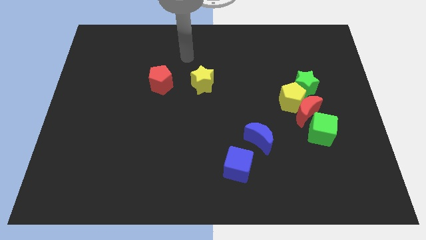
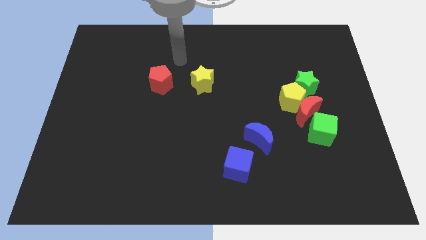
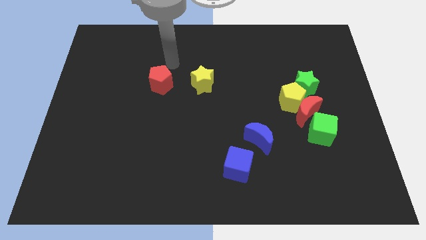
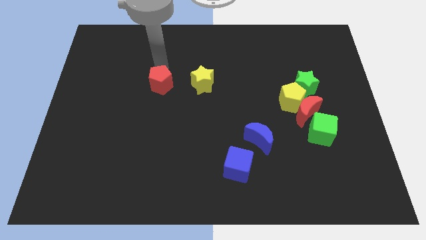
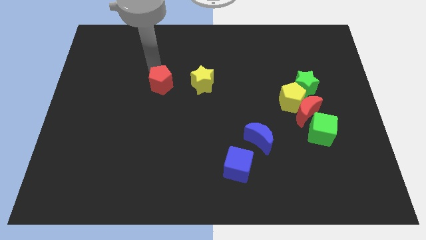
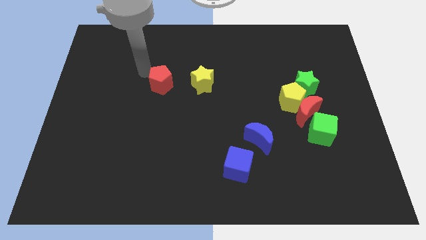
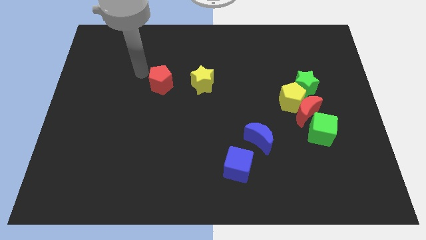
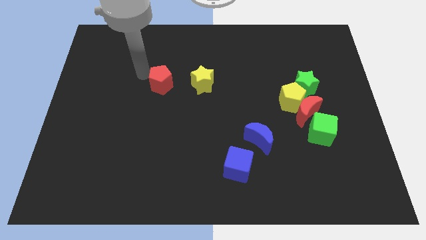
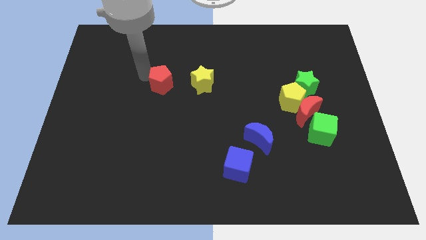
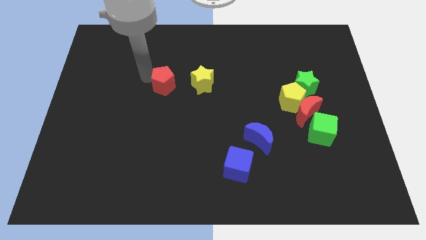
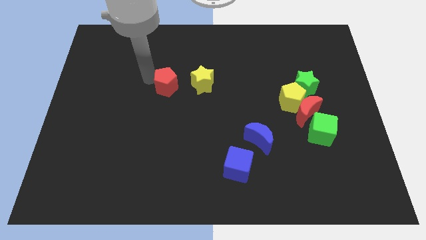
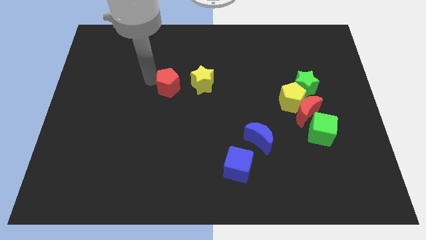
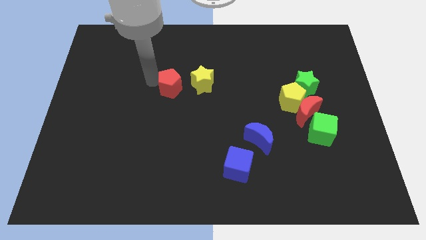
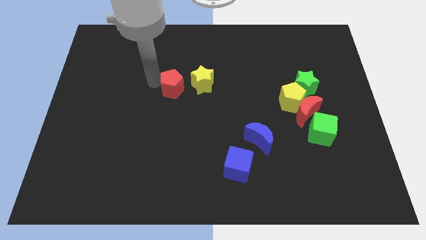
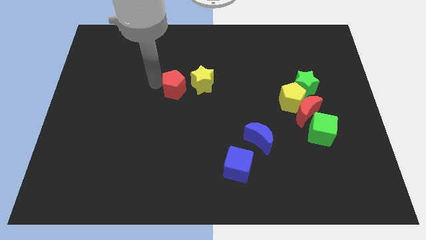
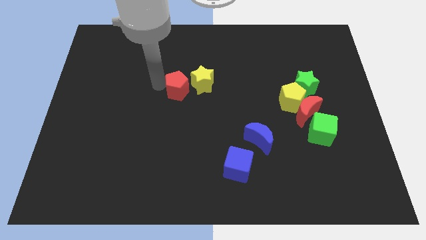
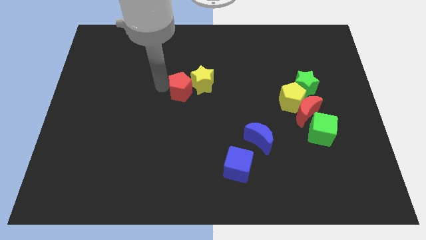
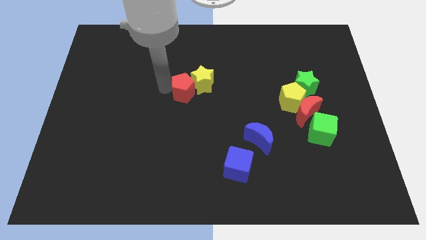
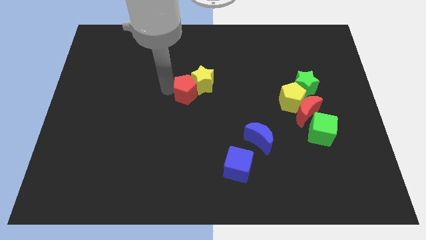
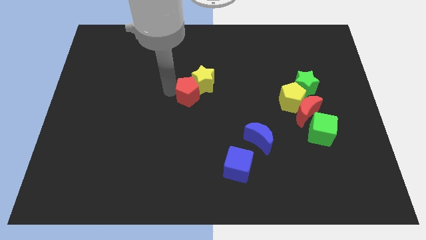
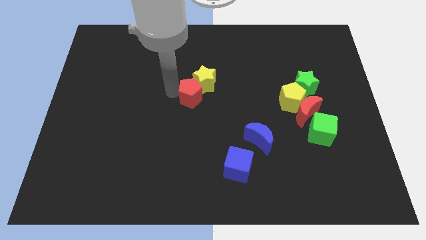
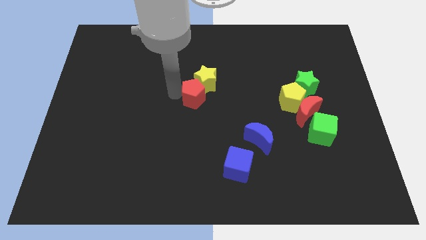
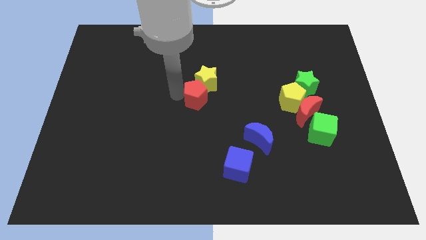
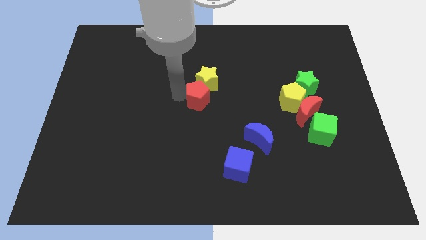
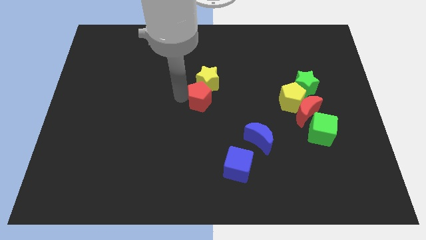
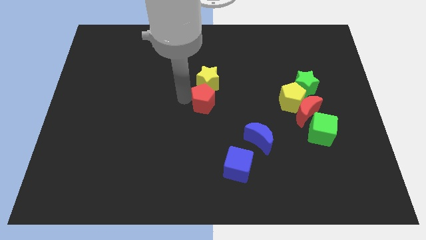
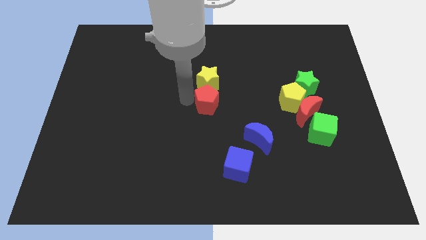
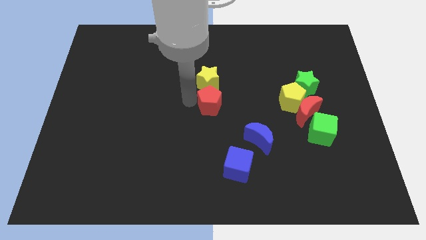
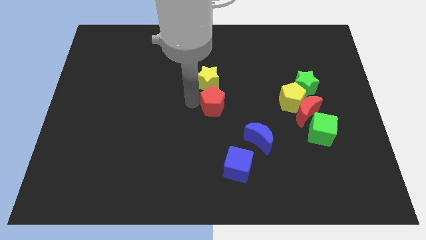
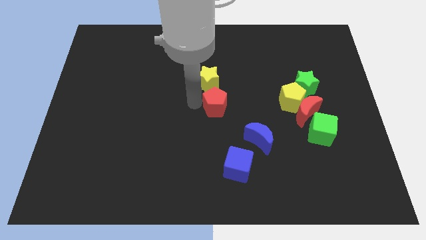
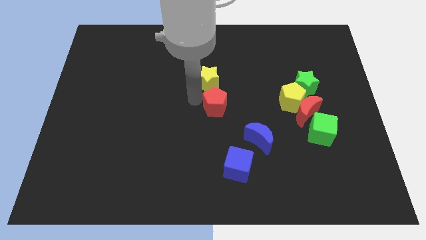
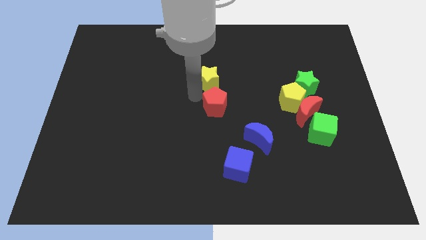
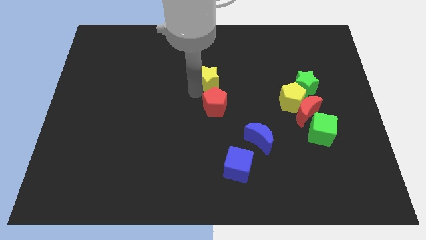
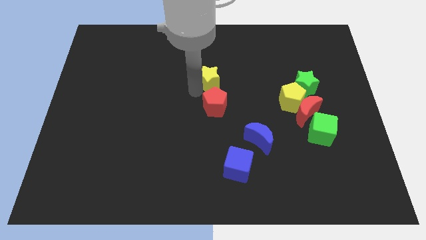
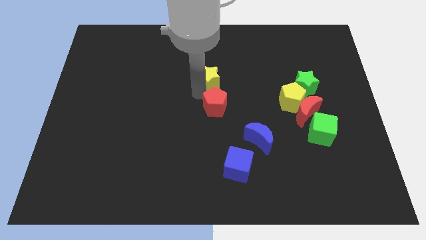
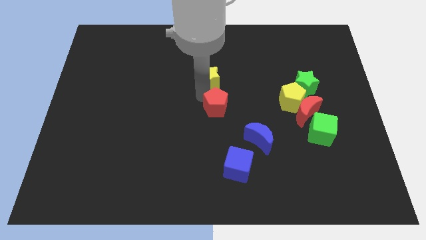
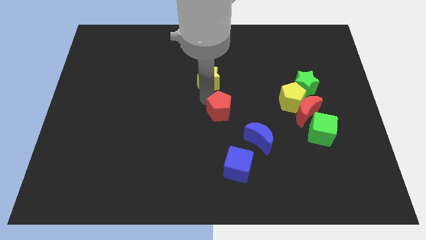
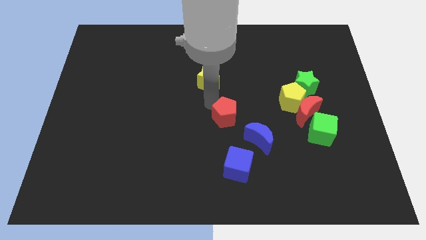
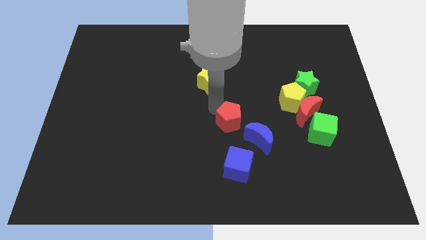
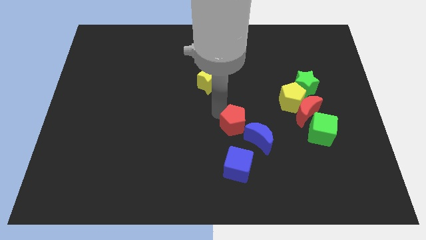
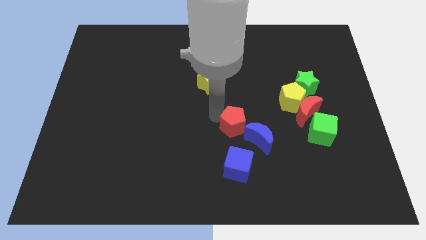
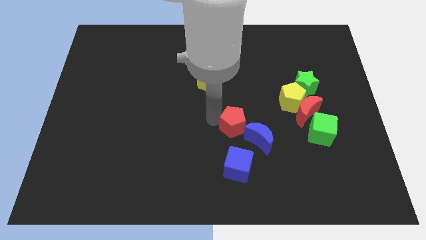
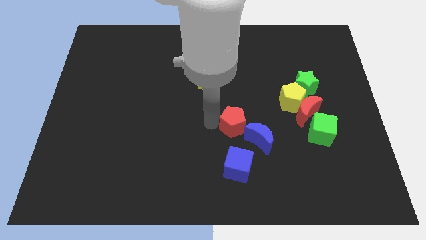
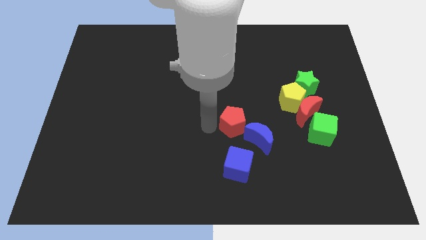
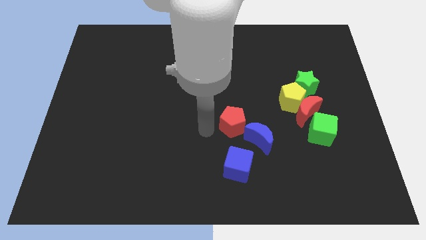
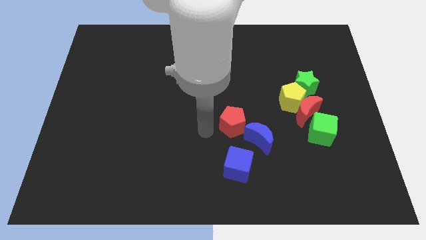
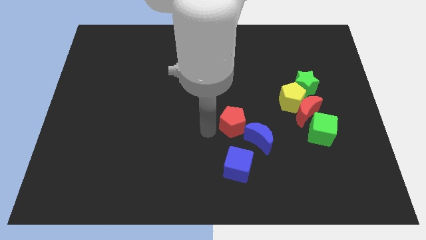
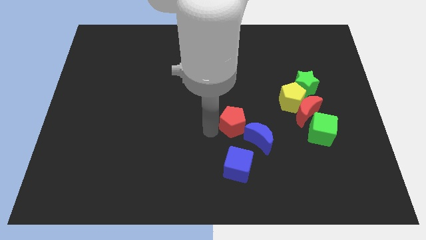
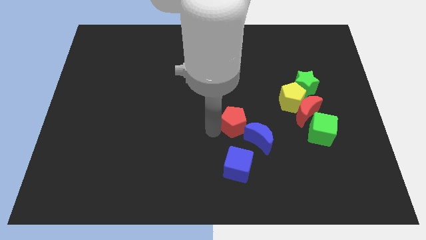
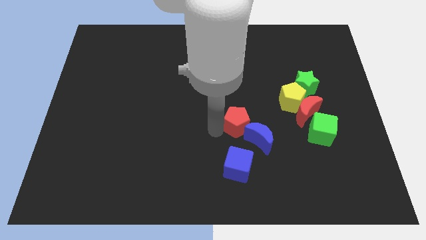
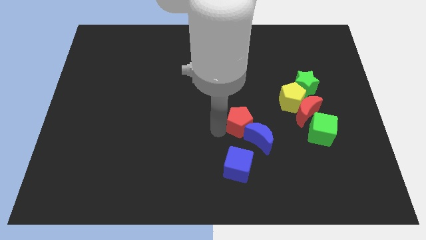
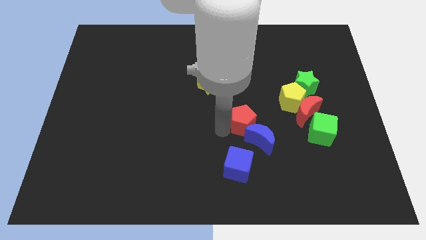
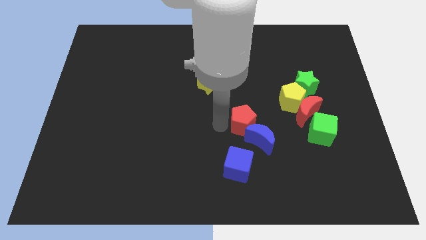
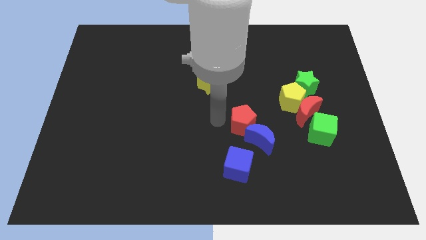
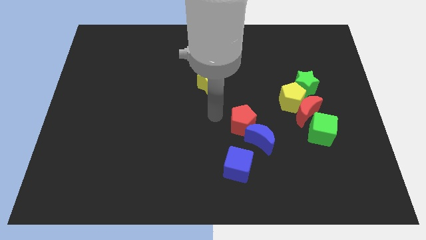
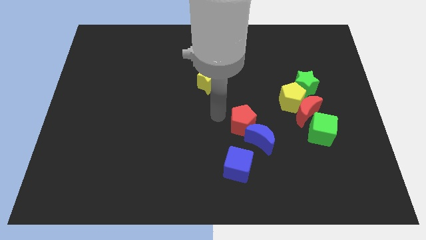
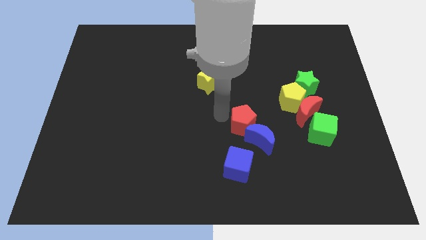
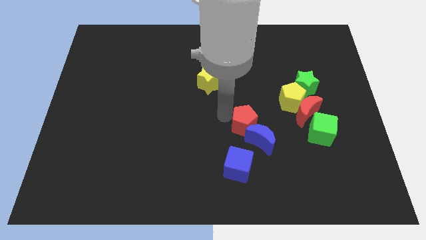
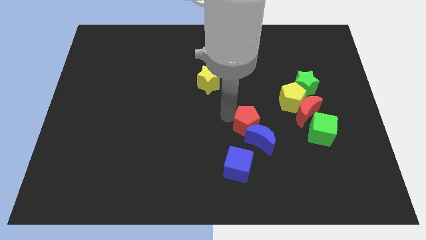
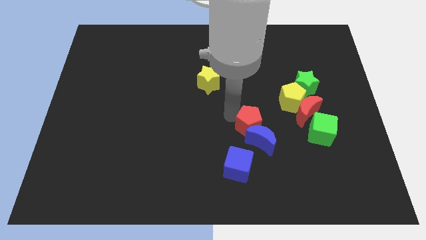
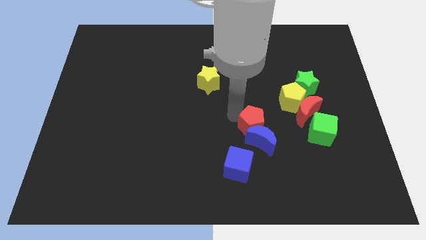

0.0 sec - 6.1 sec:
push the red pentagon to the left of the green cube

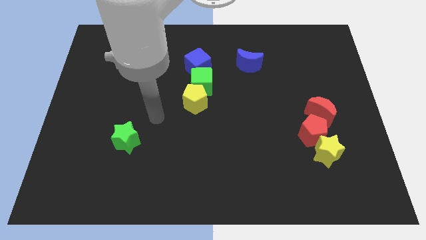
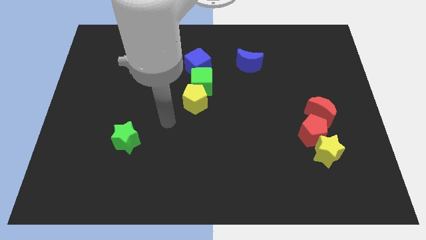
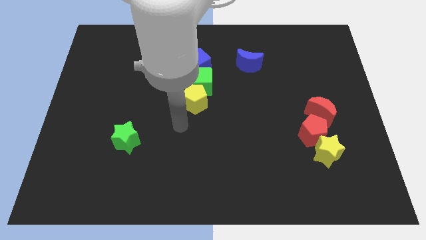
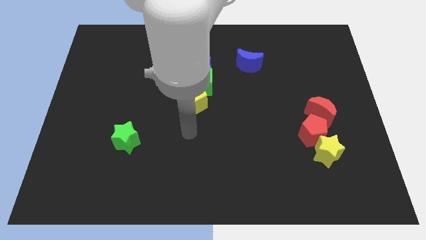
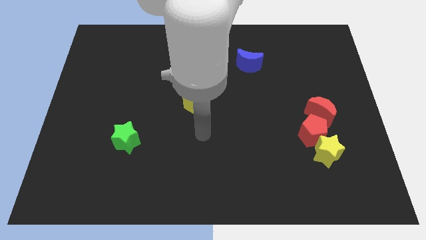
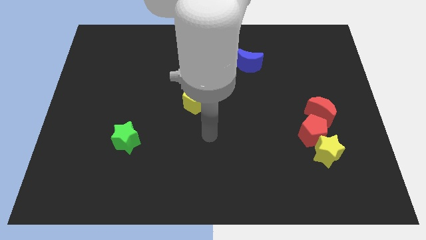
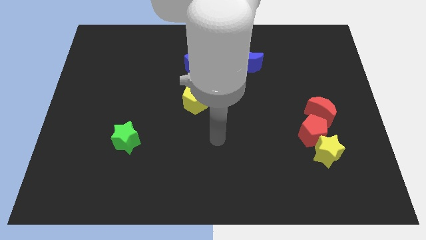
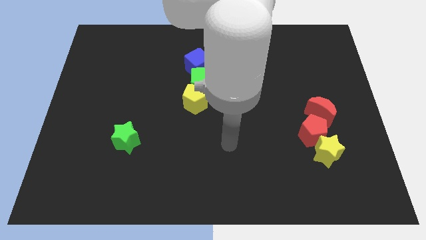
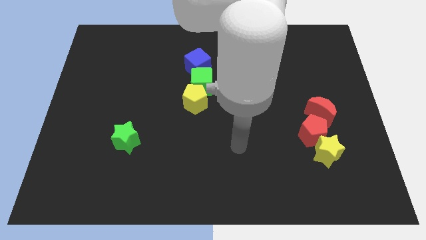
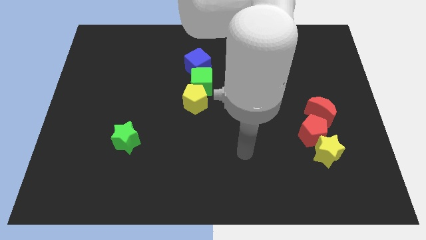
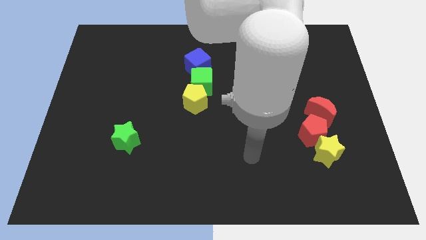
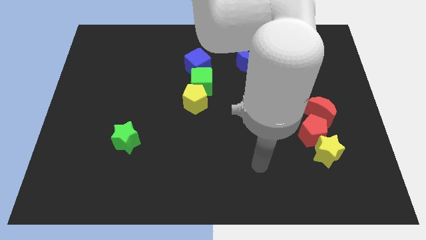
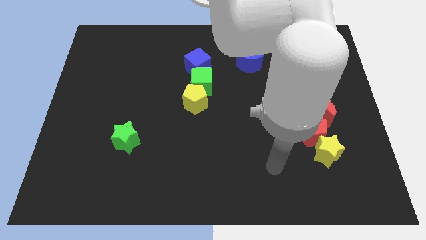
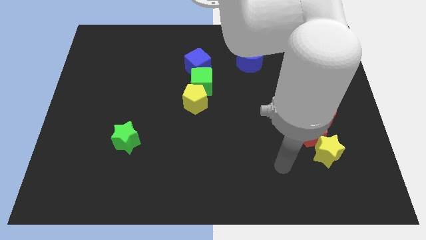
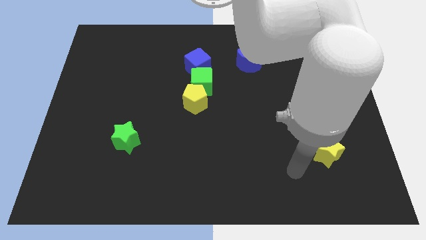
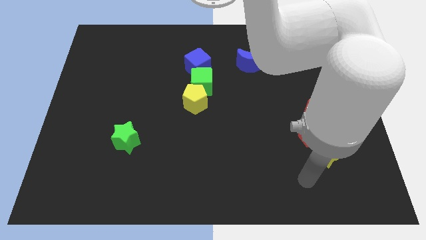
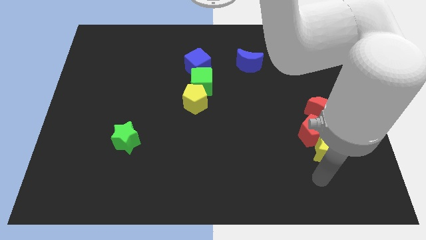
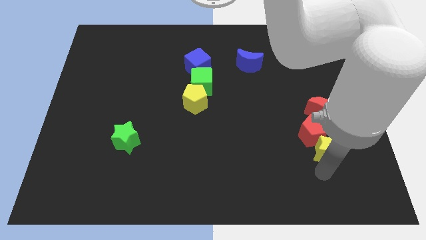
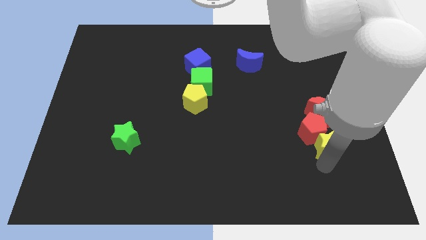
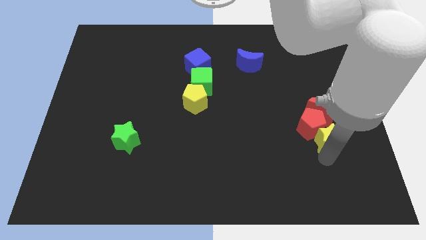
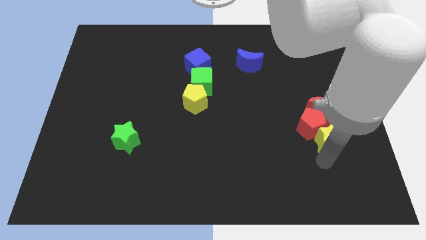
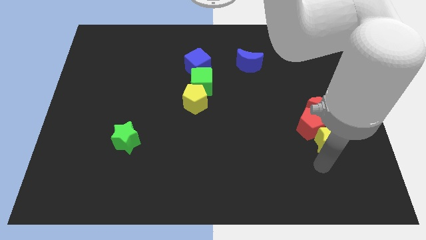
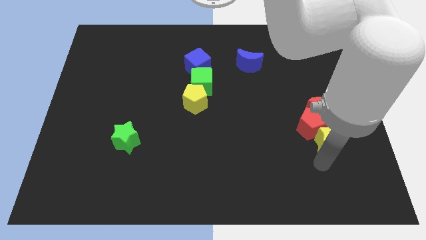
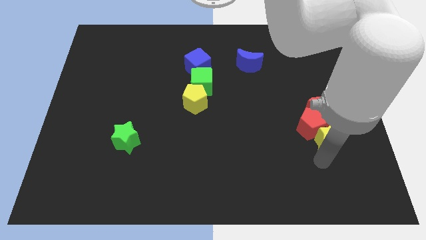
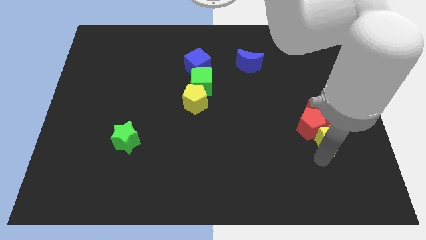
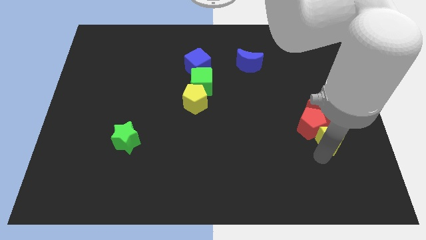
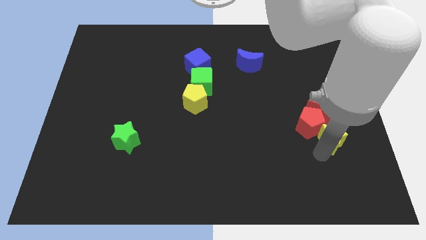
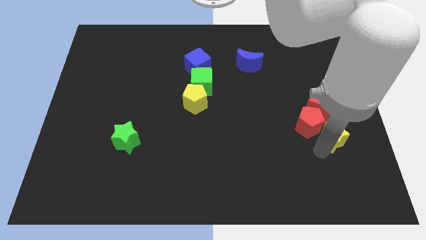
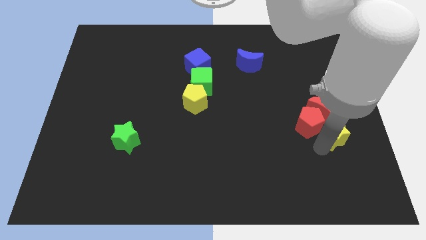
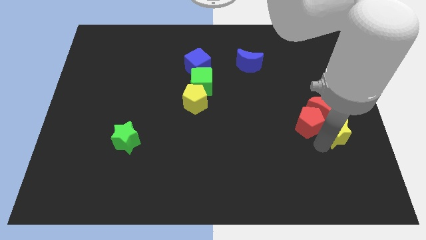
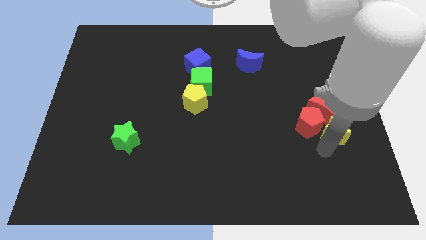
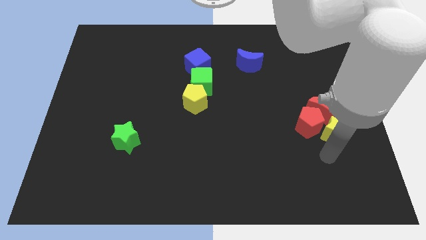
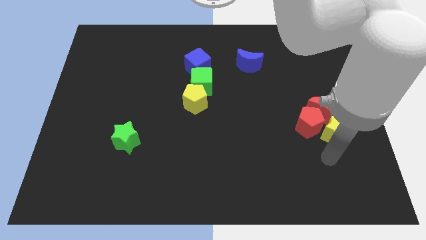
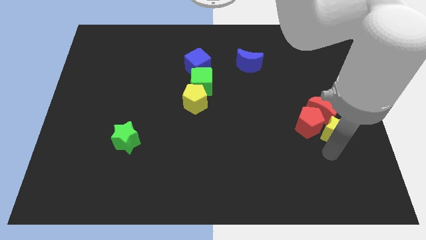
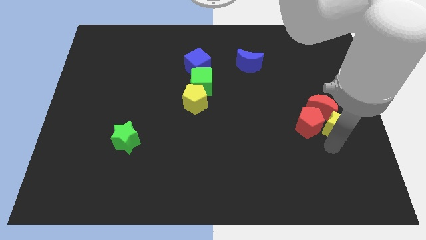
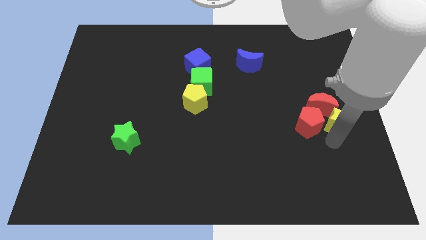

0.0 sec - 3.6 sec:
put the yellow star diagonally up and to the right of the red pentagon
